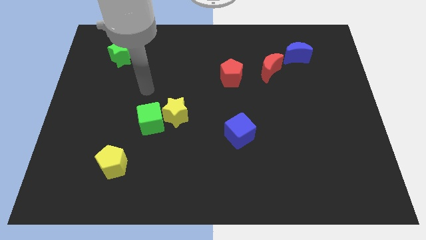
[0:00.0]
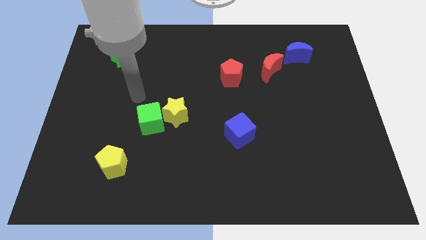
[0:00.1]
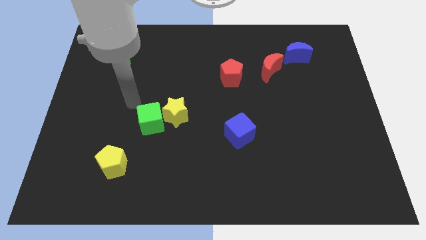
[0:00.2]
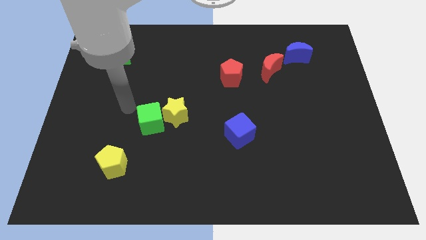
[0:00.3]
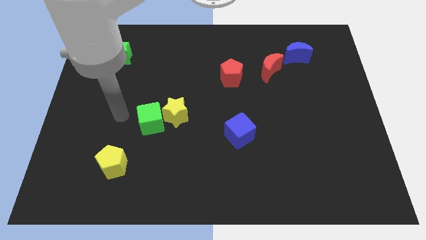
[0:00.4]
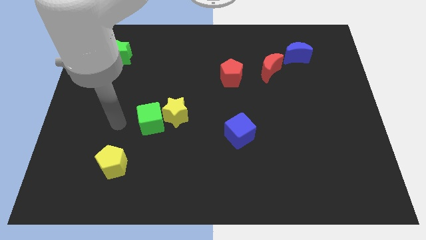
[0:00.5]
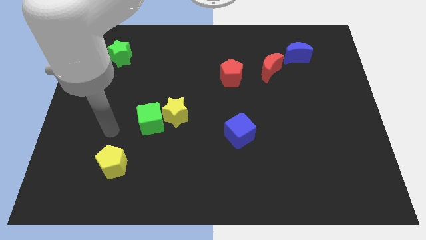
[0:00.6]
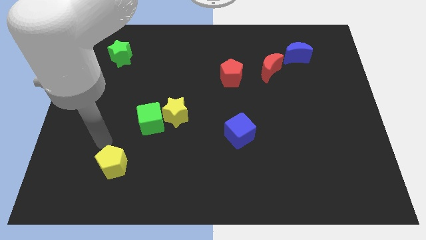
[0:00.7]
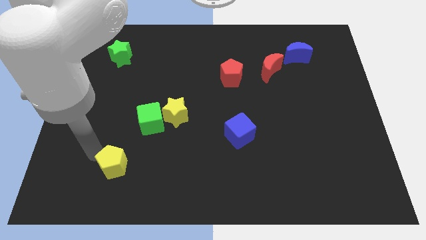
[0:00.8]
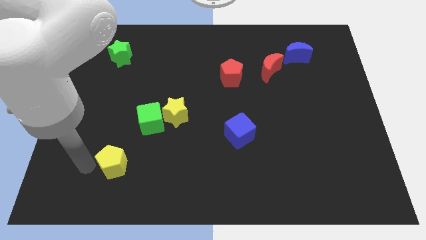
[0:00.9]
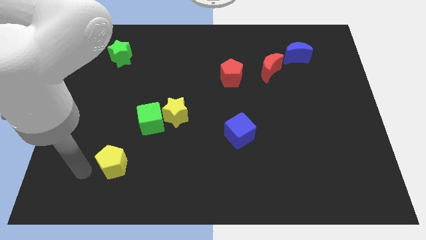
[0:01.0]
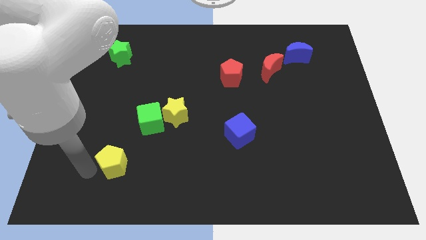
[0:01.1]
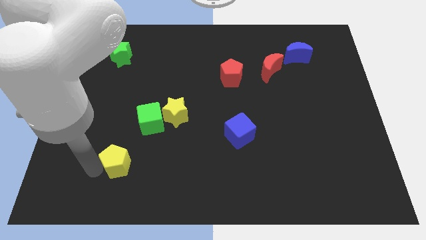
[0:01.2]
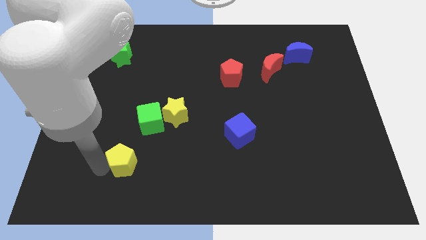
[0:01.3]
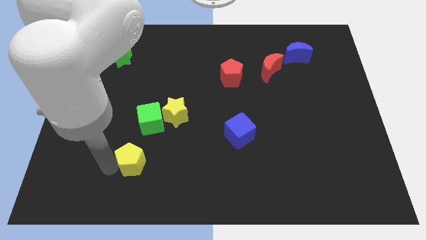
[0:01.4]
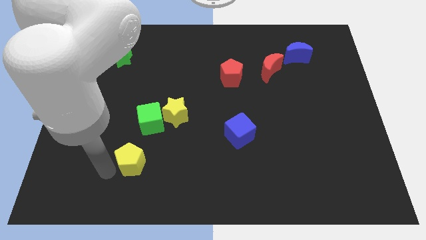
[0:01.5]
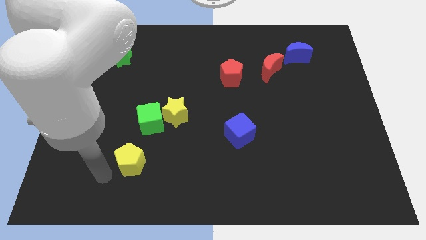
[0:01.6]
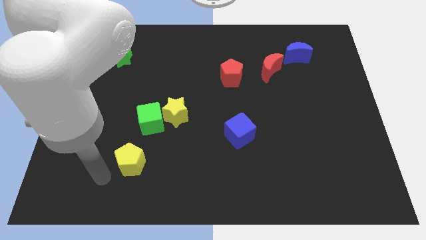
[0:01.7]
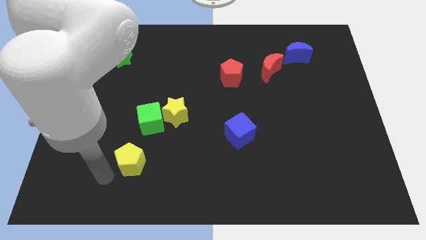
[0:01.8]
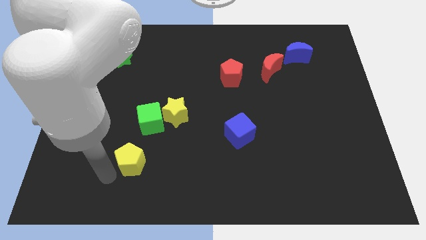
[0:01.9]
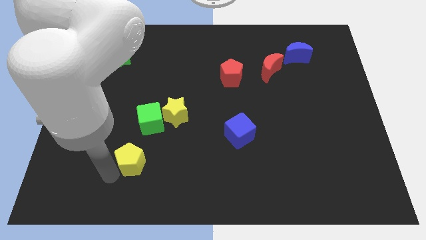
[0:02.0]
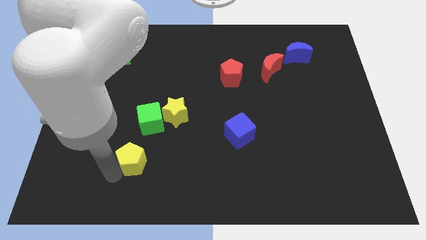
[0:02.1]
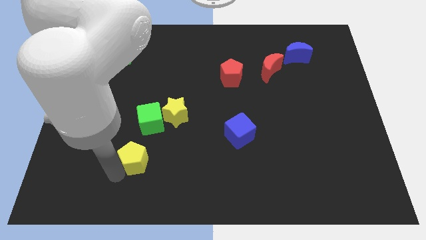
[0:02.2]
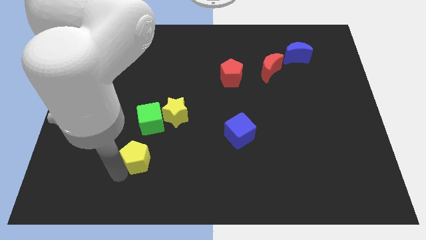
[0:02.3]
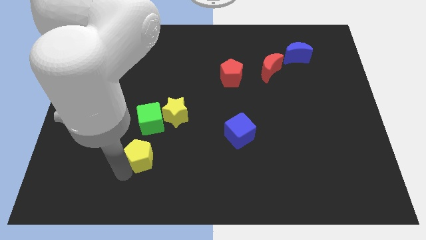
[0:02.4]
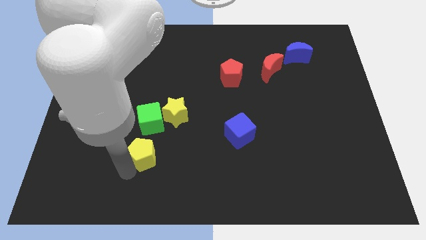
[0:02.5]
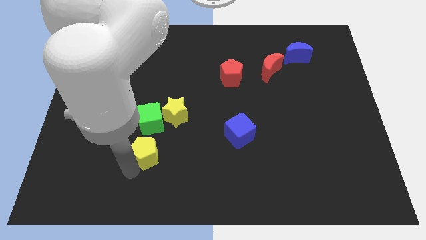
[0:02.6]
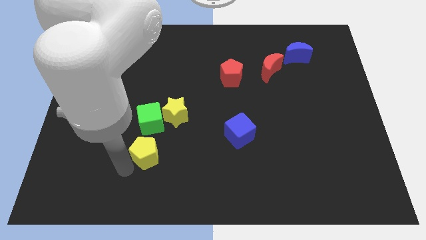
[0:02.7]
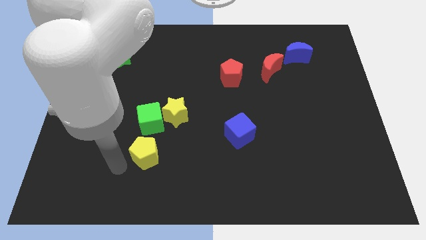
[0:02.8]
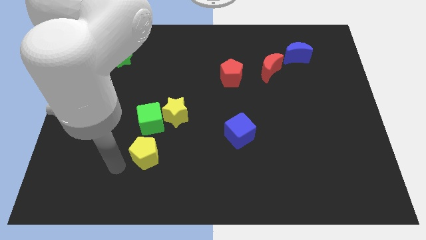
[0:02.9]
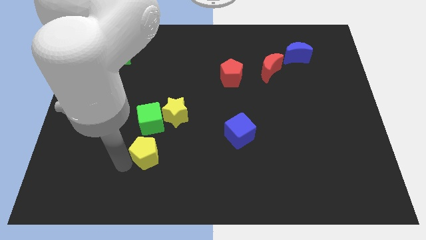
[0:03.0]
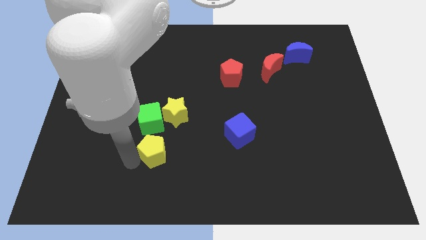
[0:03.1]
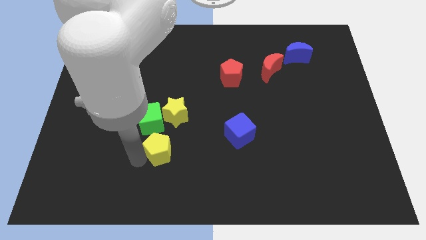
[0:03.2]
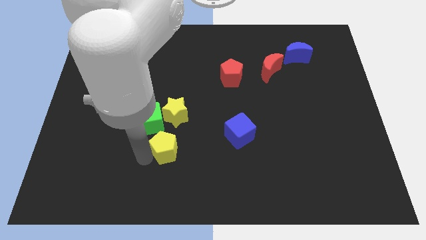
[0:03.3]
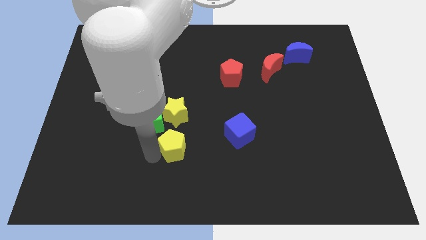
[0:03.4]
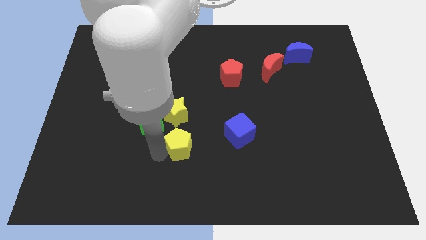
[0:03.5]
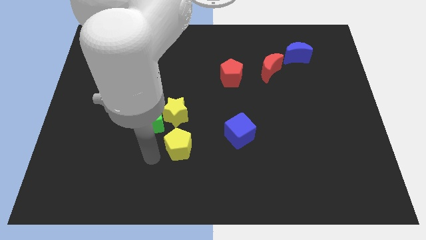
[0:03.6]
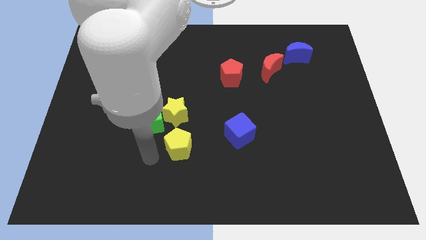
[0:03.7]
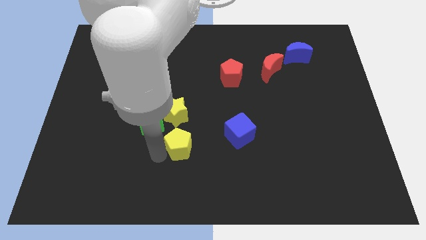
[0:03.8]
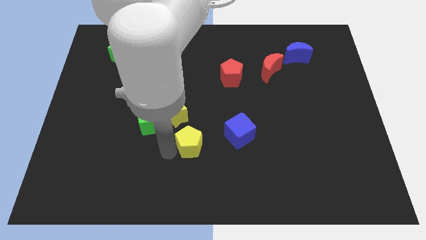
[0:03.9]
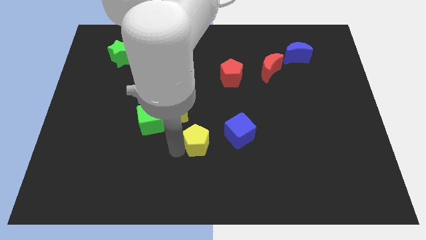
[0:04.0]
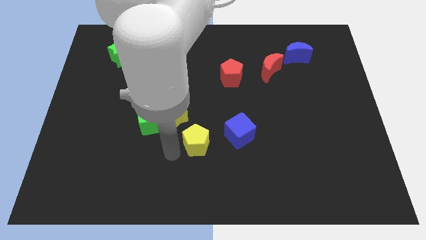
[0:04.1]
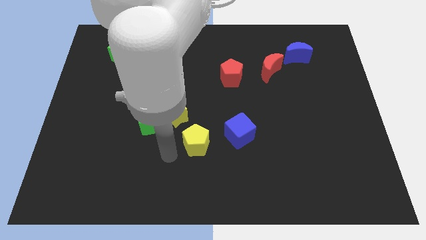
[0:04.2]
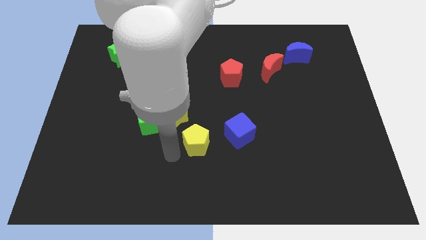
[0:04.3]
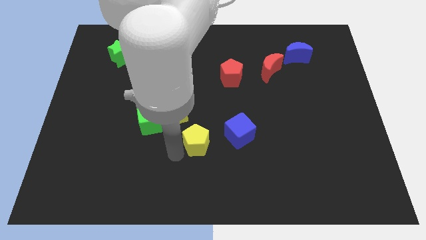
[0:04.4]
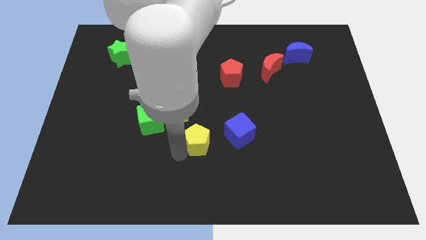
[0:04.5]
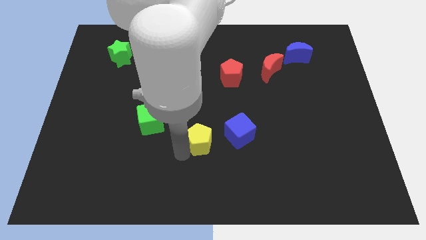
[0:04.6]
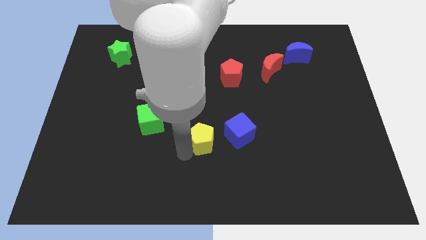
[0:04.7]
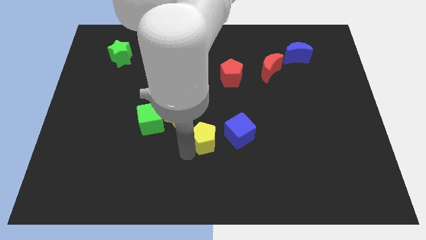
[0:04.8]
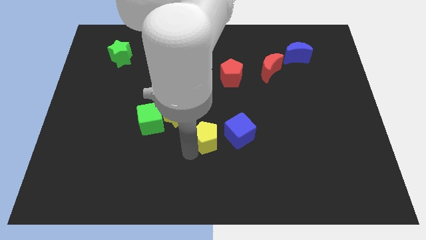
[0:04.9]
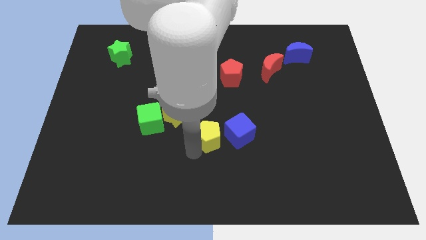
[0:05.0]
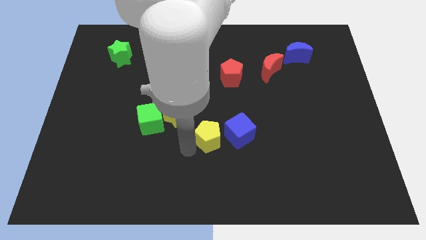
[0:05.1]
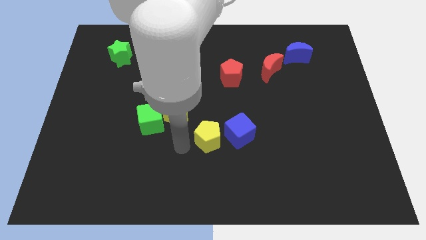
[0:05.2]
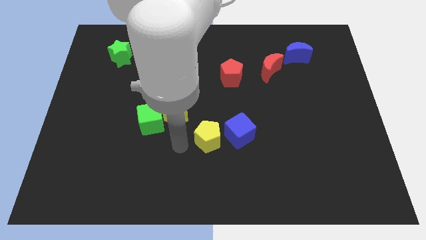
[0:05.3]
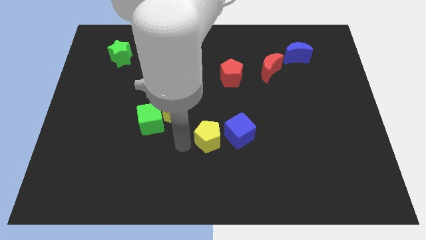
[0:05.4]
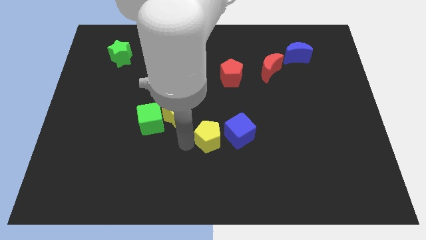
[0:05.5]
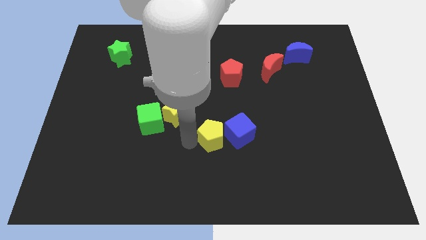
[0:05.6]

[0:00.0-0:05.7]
push the yellow pentagon close to the blue cube

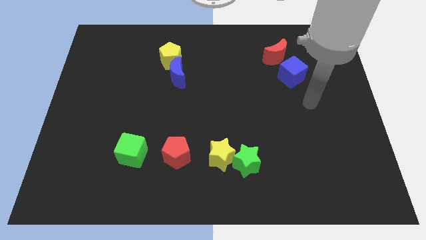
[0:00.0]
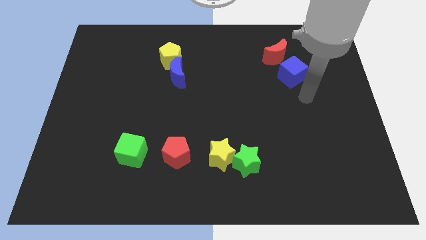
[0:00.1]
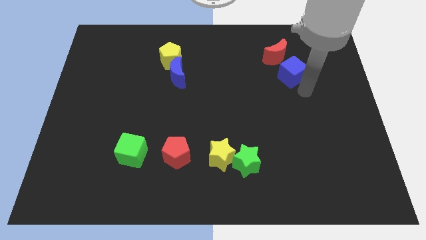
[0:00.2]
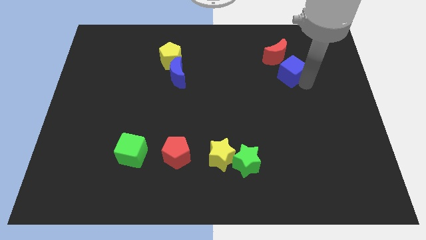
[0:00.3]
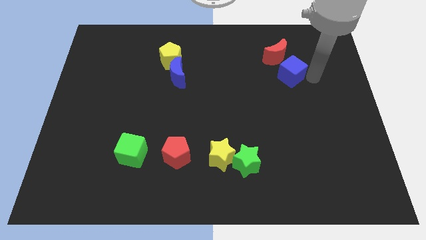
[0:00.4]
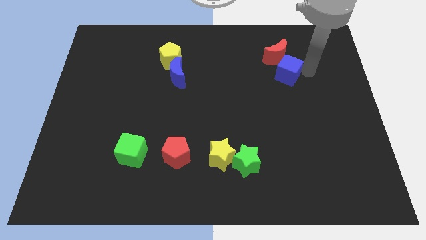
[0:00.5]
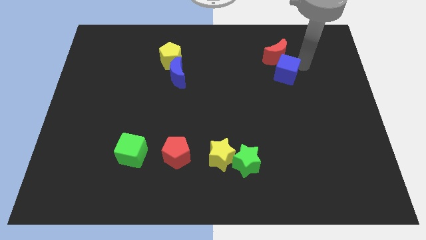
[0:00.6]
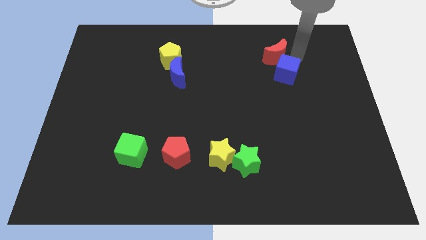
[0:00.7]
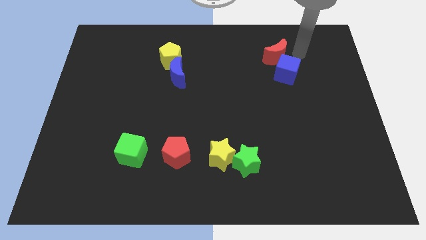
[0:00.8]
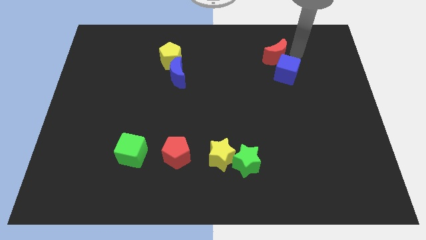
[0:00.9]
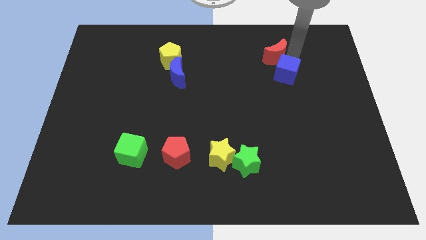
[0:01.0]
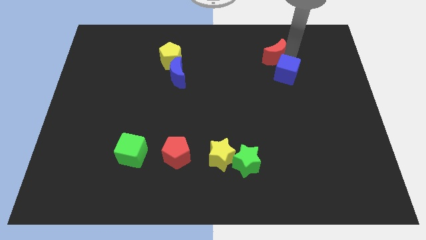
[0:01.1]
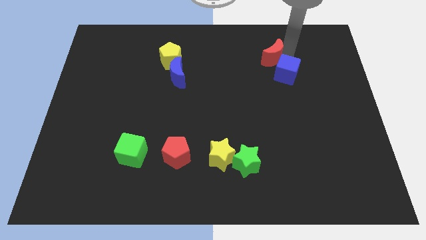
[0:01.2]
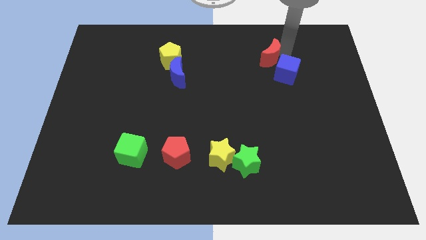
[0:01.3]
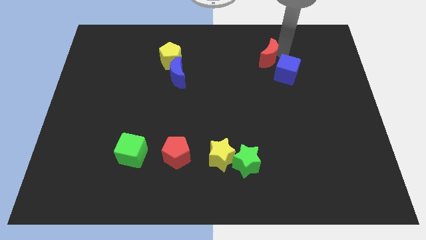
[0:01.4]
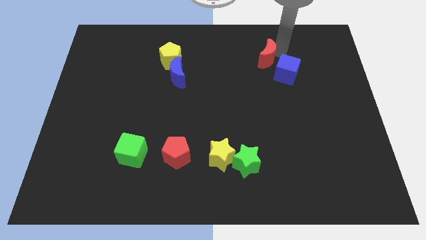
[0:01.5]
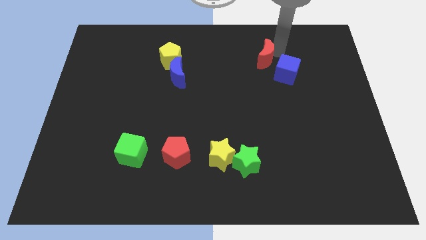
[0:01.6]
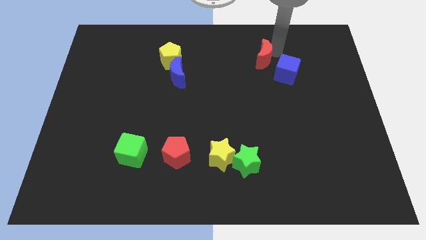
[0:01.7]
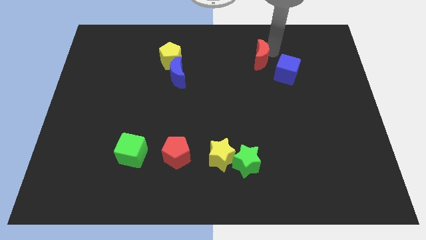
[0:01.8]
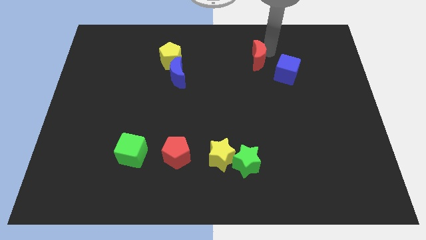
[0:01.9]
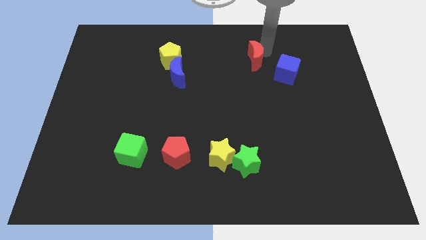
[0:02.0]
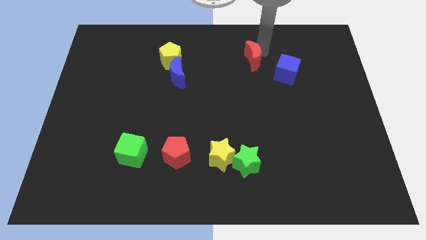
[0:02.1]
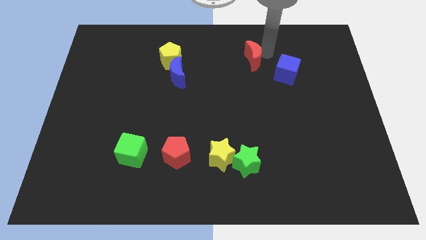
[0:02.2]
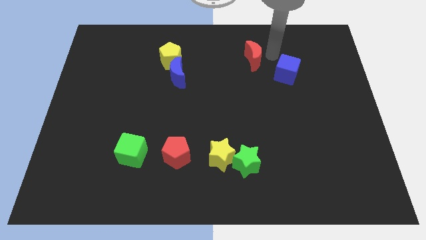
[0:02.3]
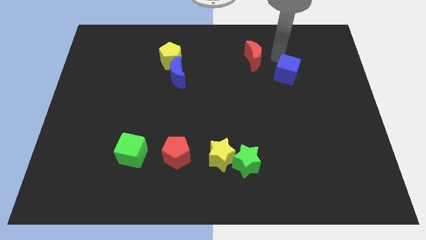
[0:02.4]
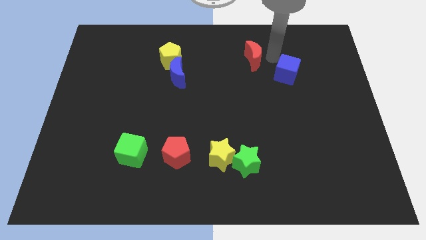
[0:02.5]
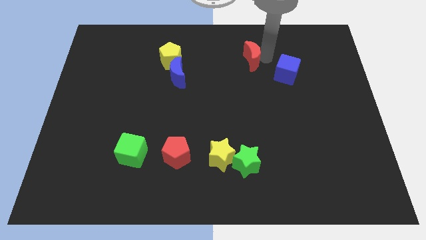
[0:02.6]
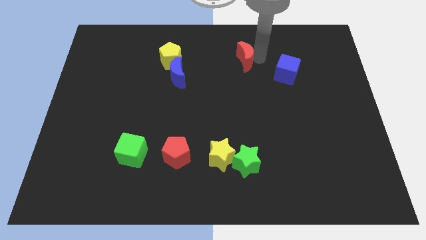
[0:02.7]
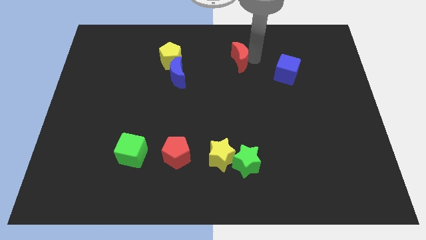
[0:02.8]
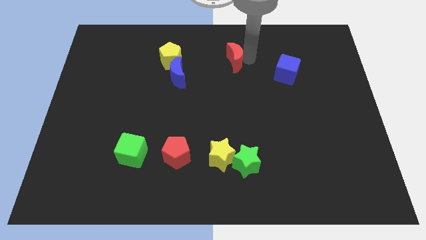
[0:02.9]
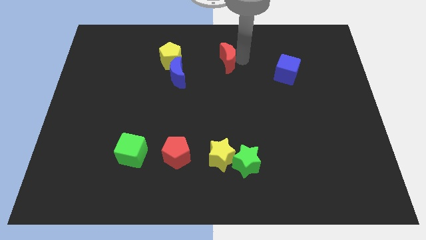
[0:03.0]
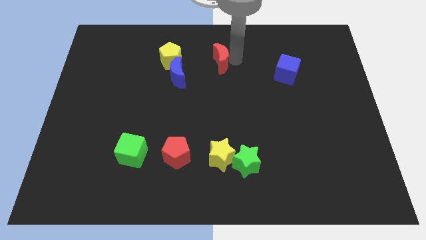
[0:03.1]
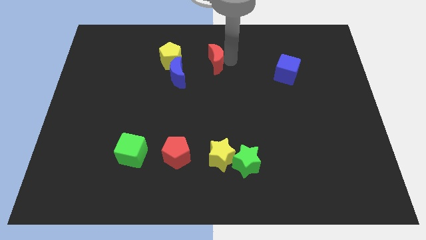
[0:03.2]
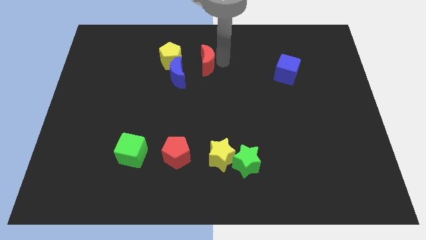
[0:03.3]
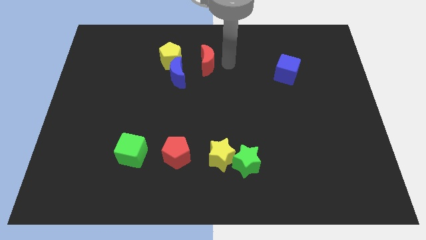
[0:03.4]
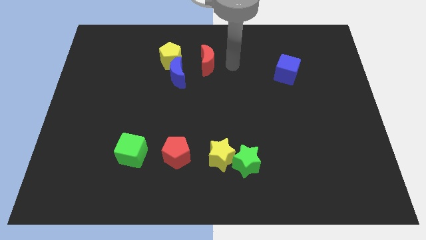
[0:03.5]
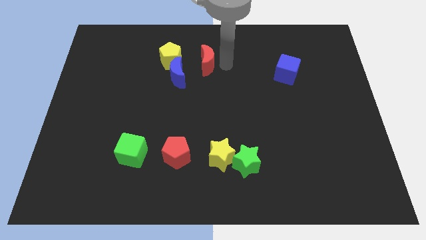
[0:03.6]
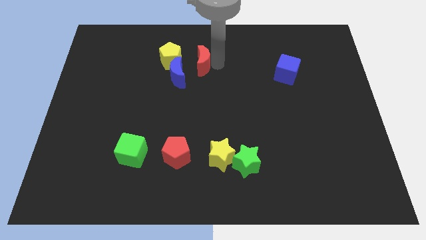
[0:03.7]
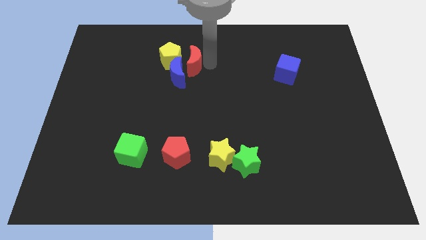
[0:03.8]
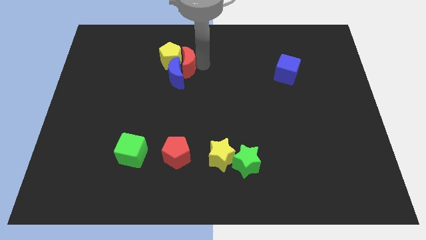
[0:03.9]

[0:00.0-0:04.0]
move the red moon to the yellow pentagon
